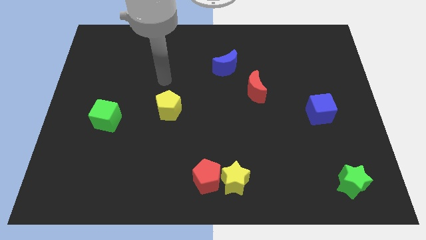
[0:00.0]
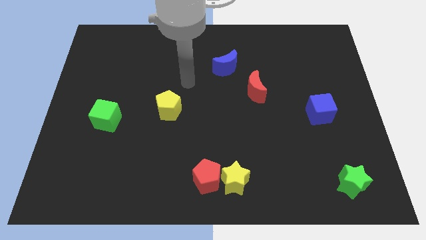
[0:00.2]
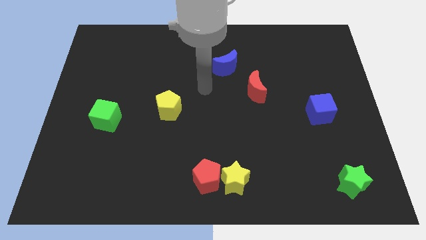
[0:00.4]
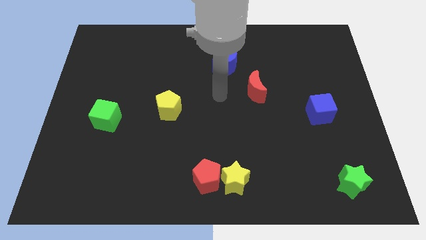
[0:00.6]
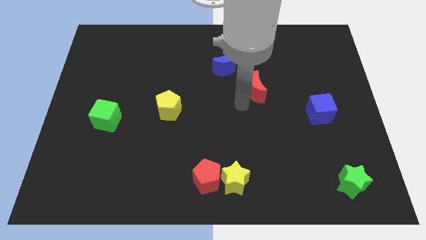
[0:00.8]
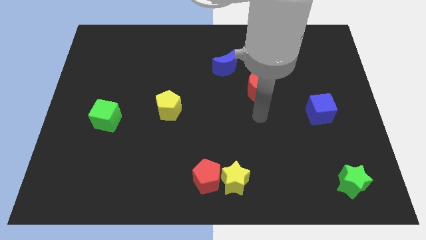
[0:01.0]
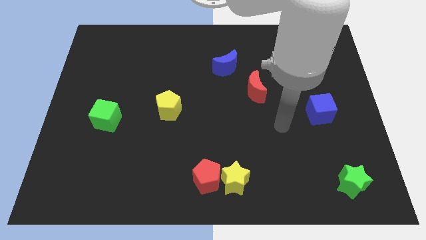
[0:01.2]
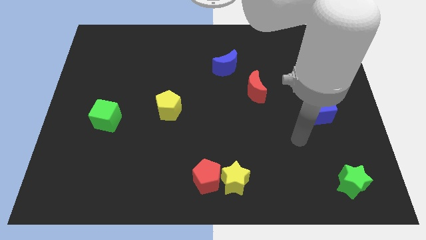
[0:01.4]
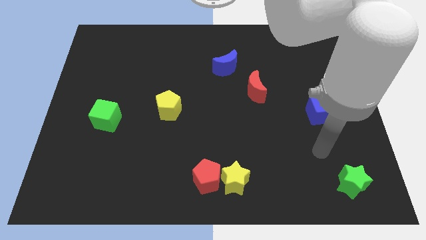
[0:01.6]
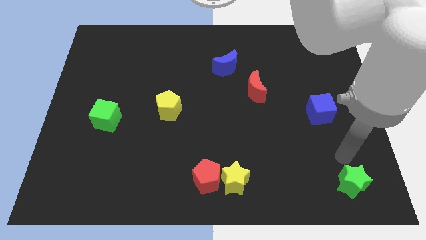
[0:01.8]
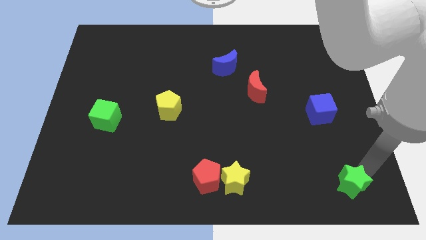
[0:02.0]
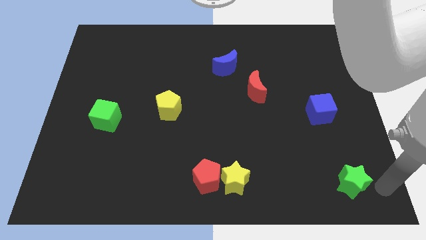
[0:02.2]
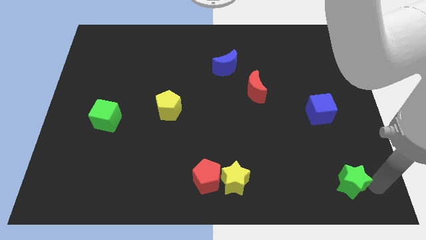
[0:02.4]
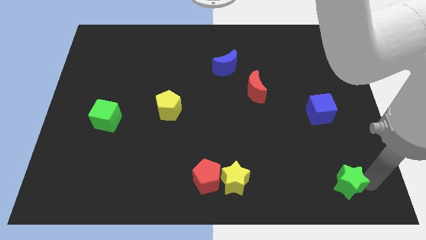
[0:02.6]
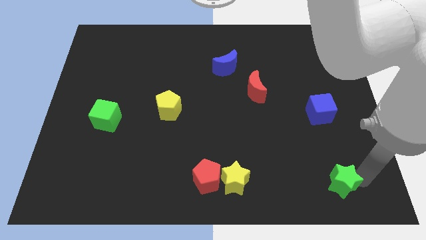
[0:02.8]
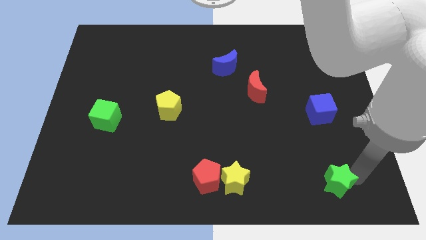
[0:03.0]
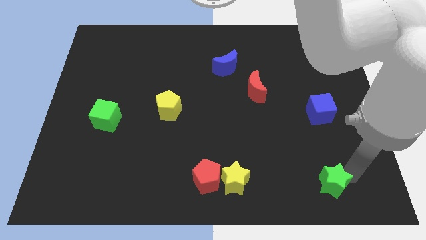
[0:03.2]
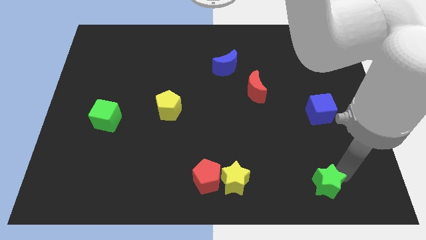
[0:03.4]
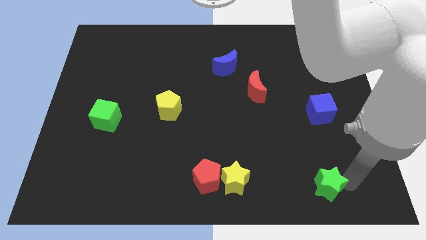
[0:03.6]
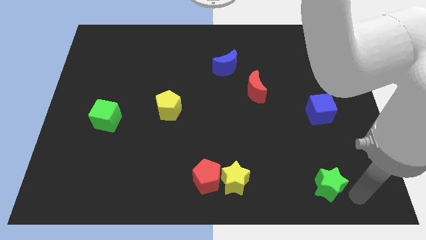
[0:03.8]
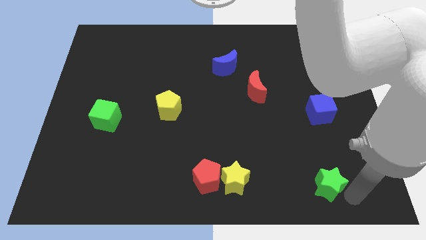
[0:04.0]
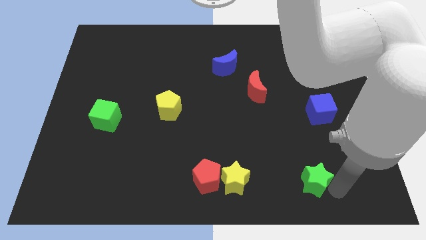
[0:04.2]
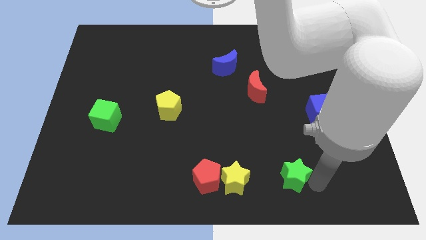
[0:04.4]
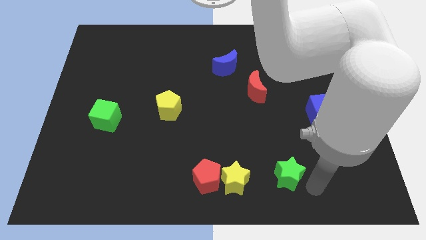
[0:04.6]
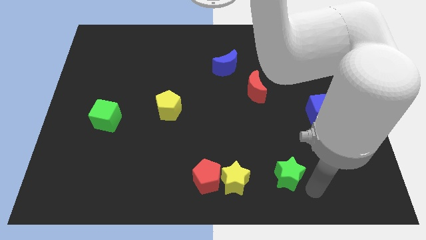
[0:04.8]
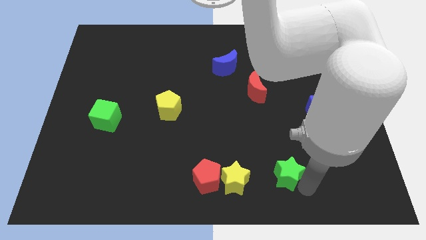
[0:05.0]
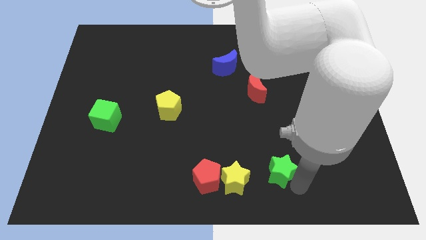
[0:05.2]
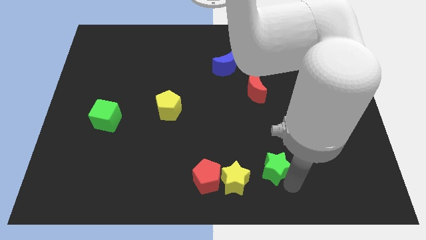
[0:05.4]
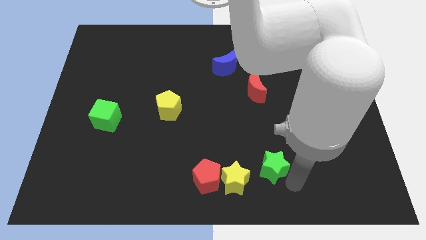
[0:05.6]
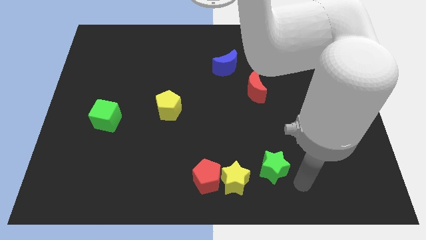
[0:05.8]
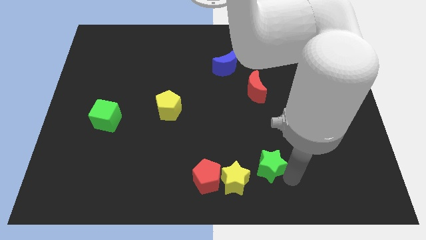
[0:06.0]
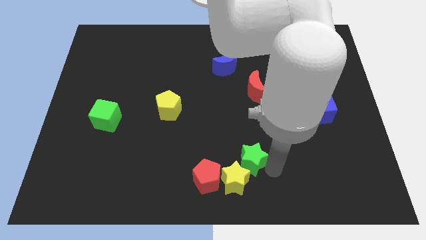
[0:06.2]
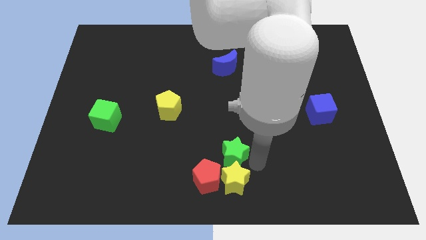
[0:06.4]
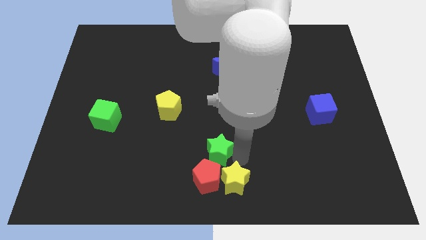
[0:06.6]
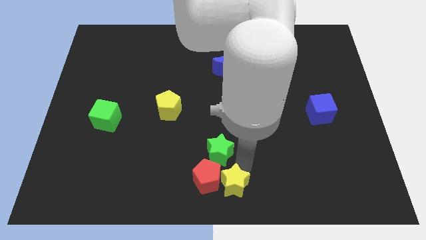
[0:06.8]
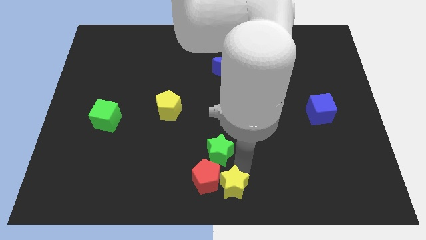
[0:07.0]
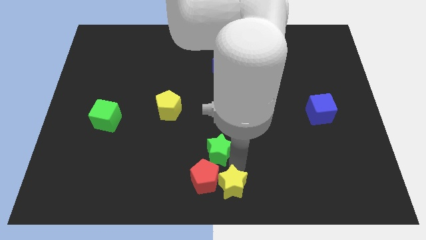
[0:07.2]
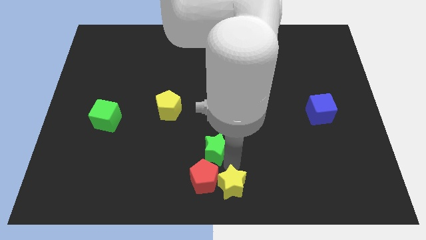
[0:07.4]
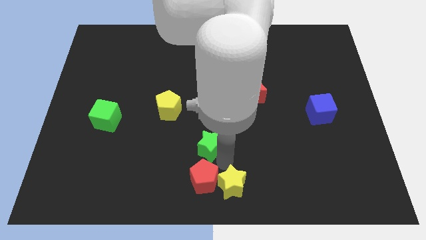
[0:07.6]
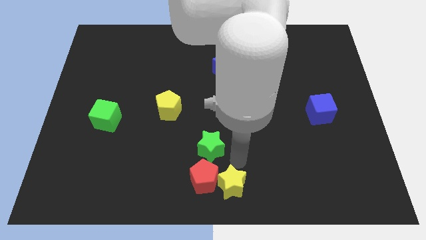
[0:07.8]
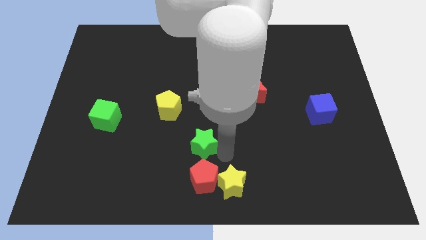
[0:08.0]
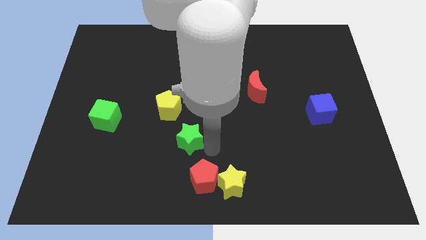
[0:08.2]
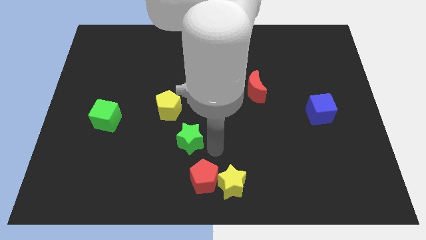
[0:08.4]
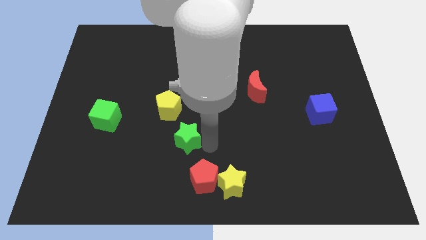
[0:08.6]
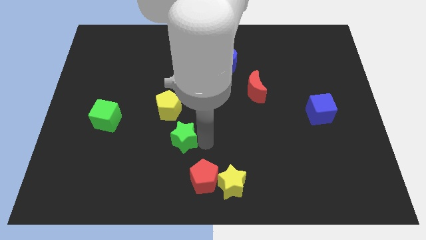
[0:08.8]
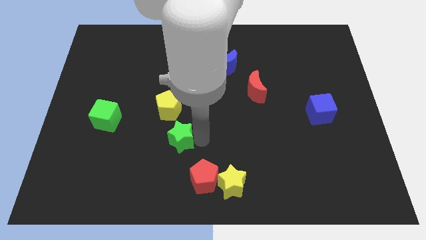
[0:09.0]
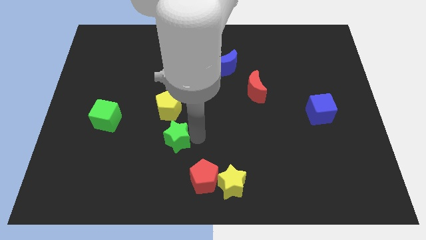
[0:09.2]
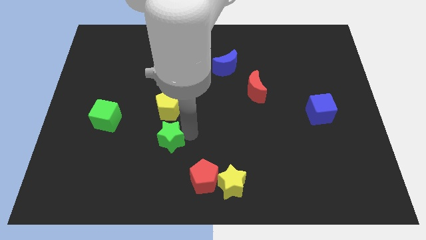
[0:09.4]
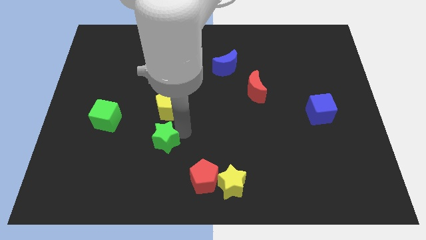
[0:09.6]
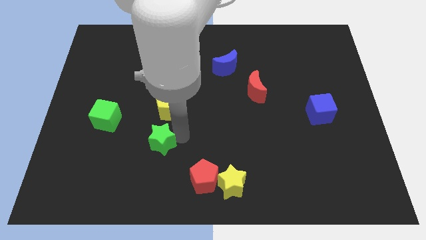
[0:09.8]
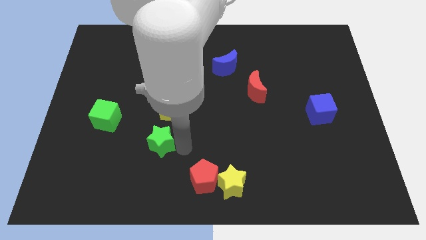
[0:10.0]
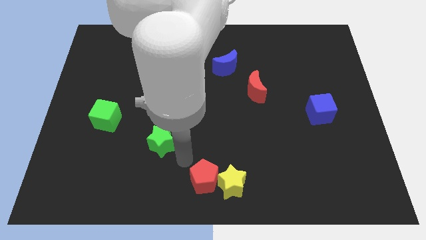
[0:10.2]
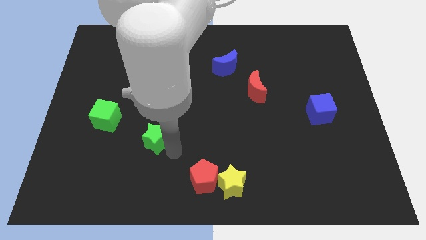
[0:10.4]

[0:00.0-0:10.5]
move the green star diagonally down and to the left of the yellow pentagon

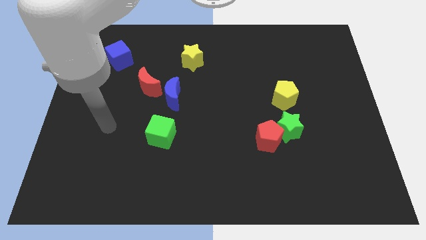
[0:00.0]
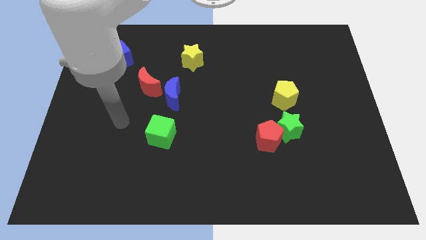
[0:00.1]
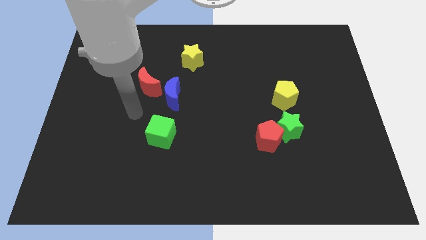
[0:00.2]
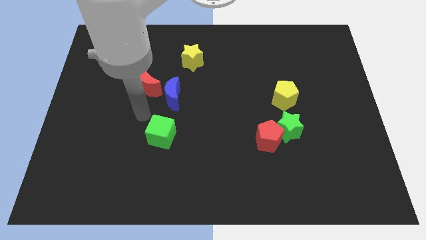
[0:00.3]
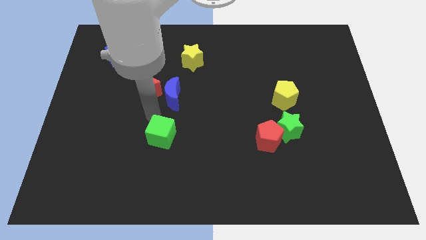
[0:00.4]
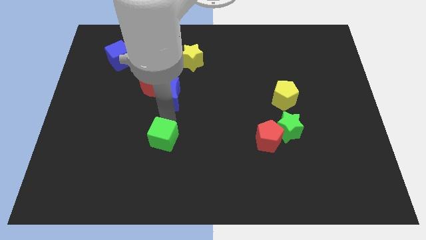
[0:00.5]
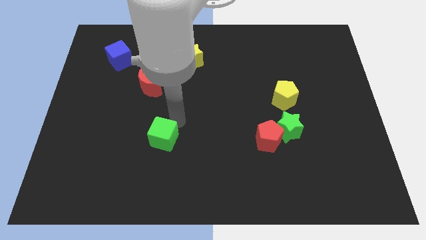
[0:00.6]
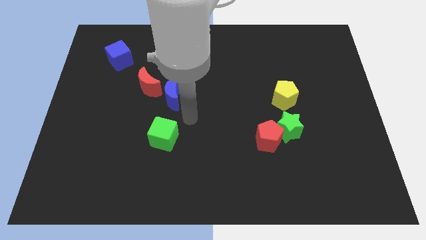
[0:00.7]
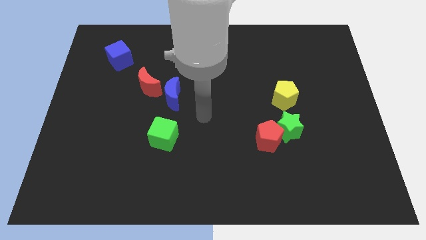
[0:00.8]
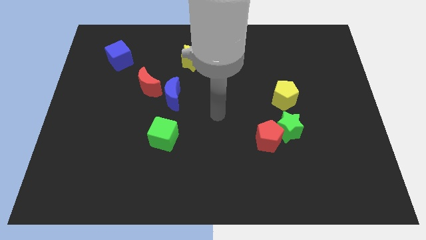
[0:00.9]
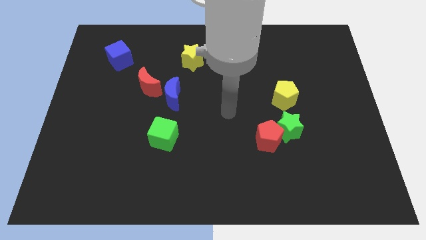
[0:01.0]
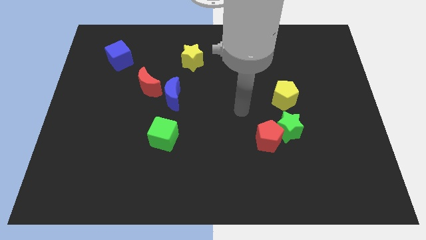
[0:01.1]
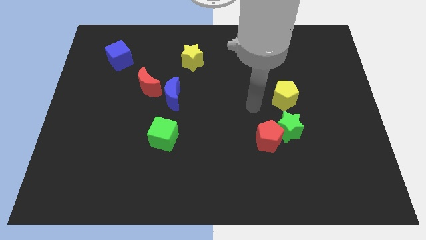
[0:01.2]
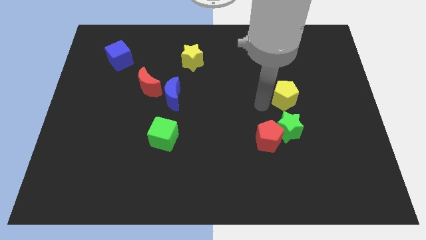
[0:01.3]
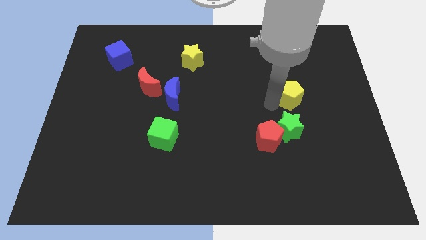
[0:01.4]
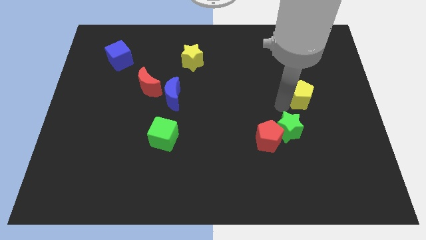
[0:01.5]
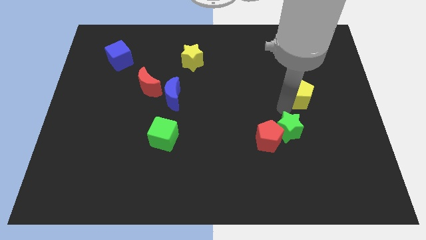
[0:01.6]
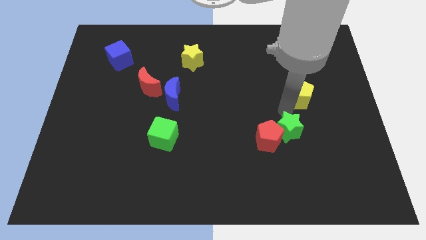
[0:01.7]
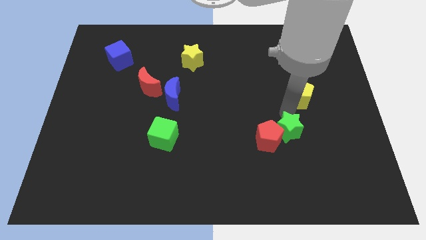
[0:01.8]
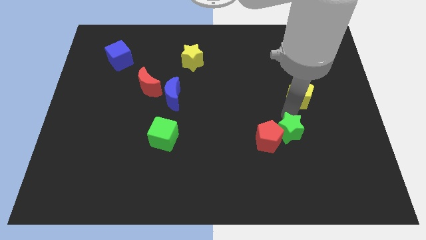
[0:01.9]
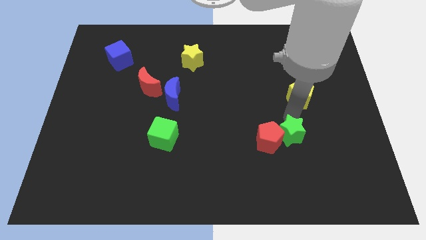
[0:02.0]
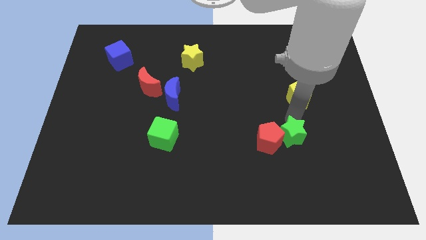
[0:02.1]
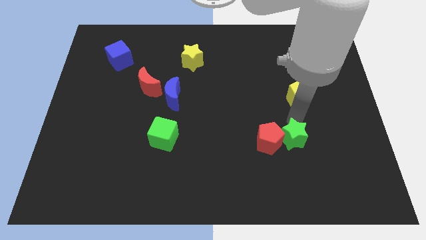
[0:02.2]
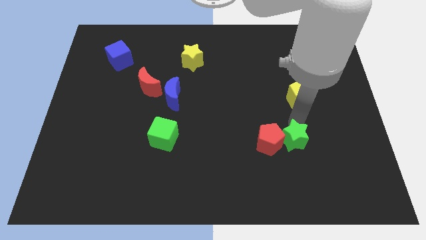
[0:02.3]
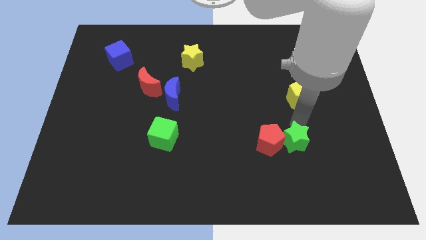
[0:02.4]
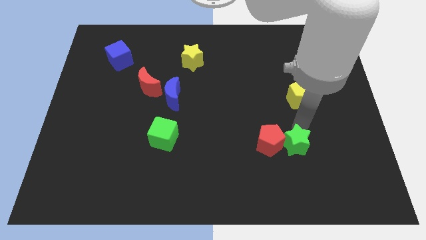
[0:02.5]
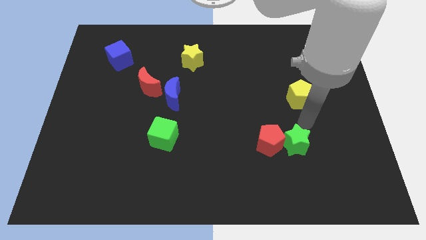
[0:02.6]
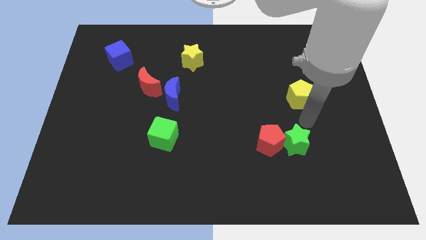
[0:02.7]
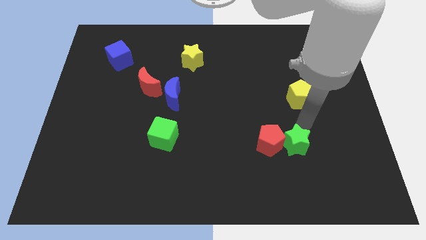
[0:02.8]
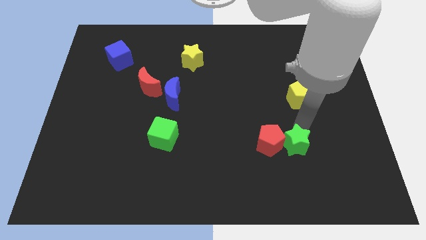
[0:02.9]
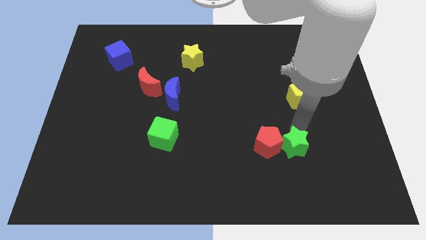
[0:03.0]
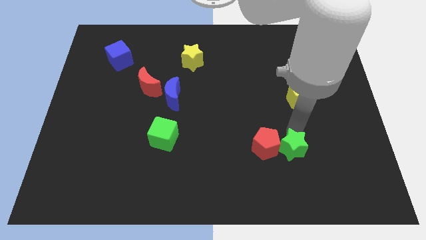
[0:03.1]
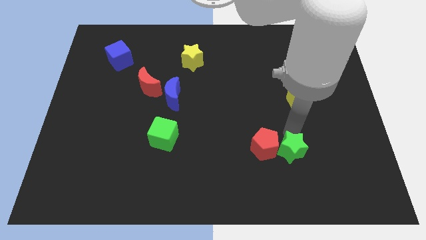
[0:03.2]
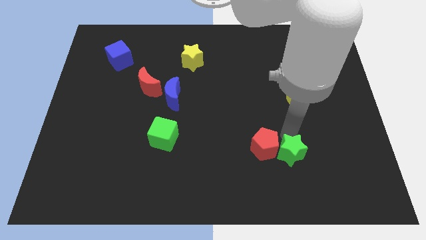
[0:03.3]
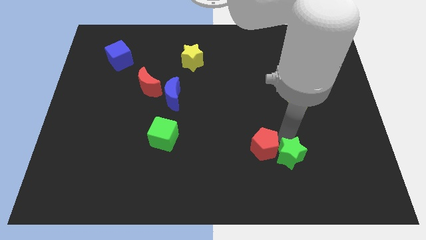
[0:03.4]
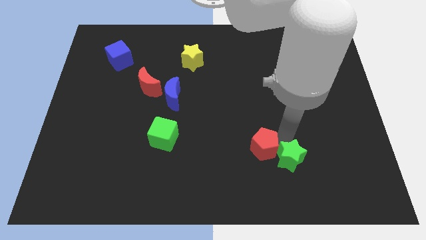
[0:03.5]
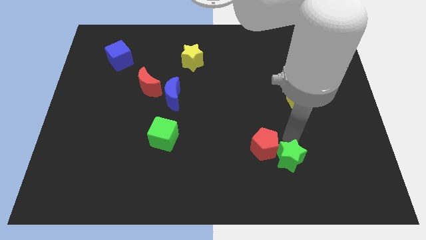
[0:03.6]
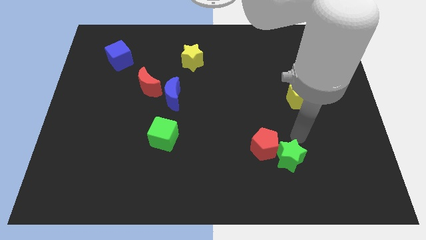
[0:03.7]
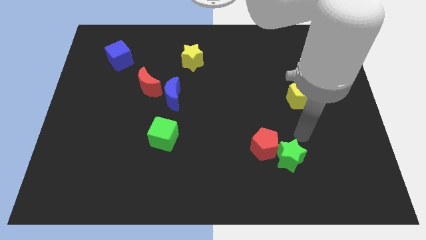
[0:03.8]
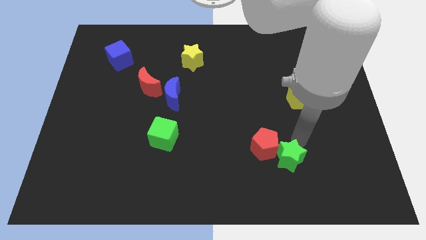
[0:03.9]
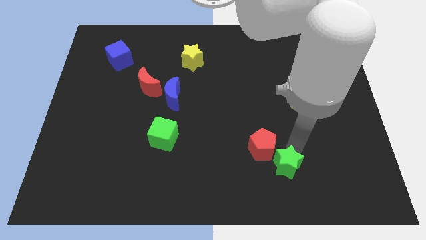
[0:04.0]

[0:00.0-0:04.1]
put the green star to the bottom side of the red pentagon
